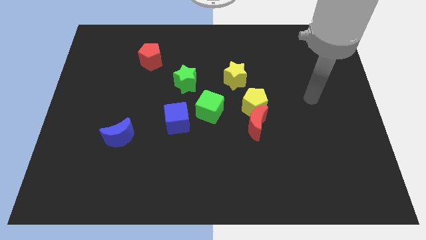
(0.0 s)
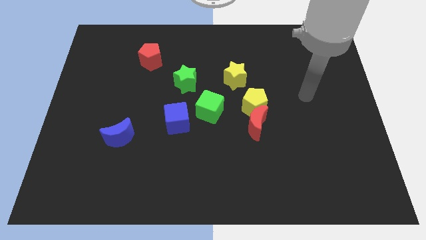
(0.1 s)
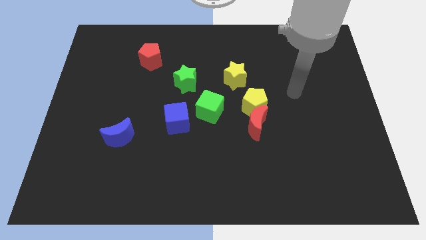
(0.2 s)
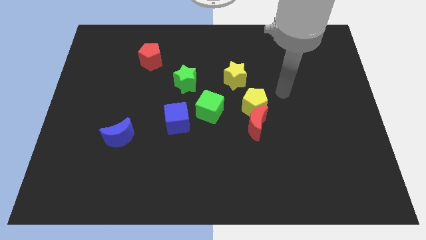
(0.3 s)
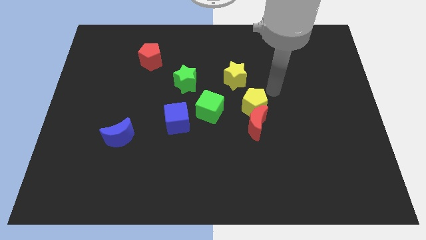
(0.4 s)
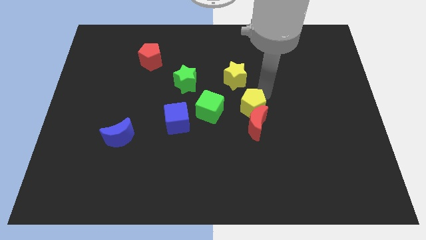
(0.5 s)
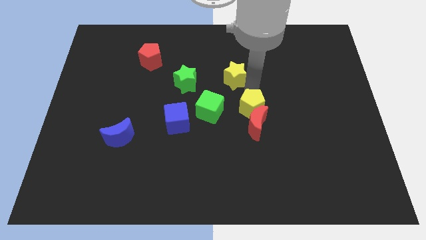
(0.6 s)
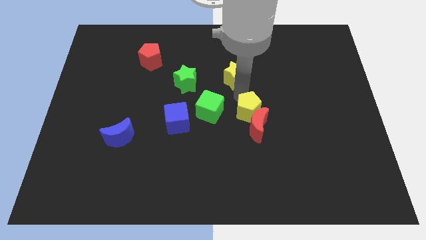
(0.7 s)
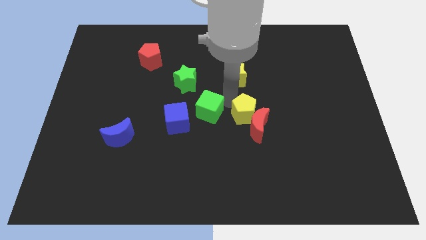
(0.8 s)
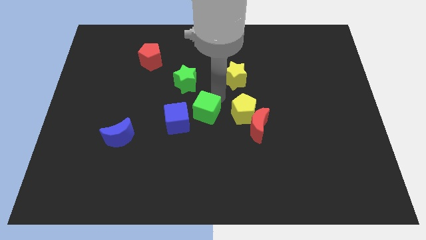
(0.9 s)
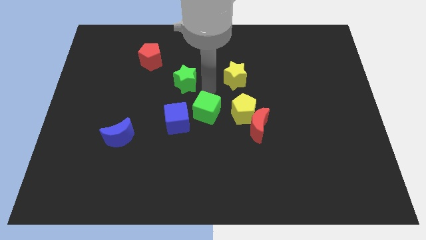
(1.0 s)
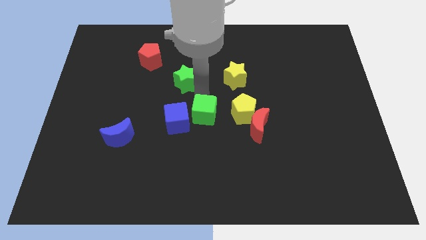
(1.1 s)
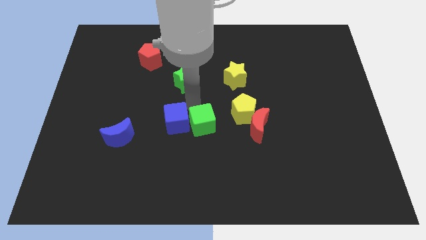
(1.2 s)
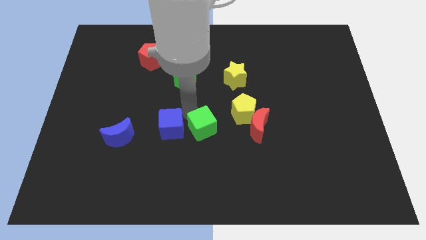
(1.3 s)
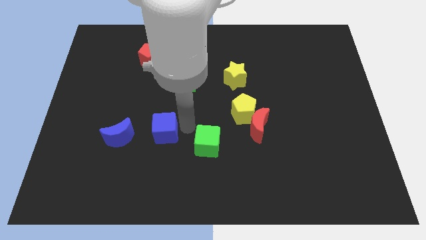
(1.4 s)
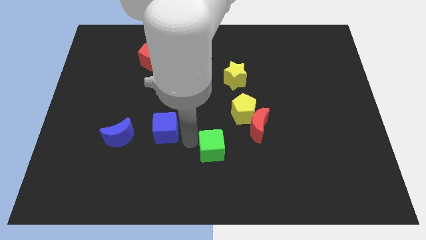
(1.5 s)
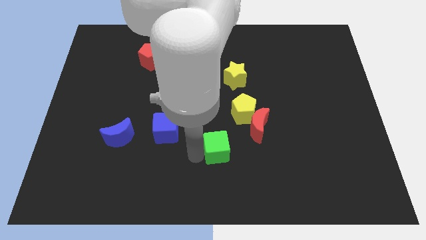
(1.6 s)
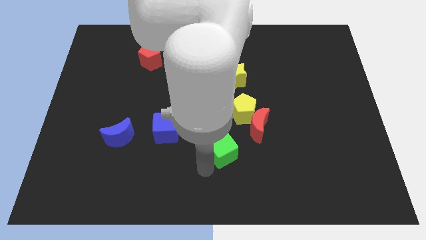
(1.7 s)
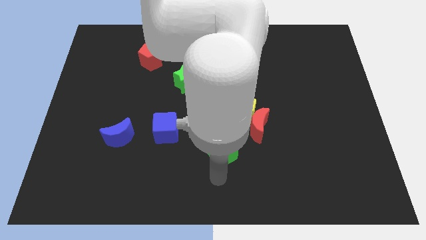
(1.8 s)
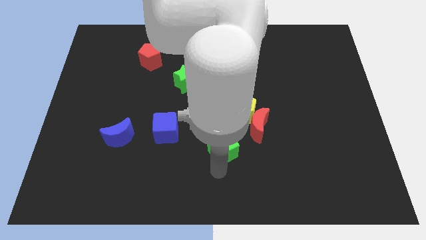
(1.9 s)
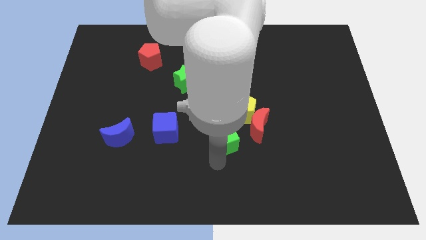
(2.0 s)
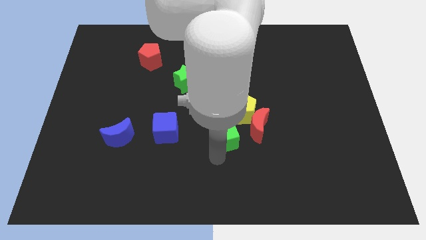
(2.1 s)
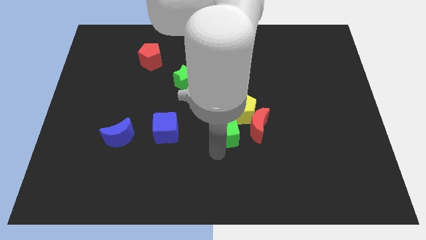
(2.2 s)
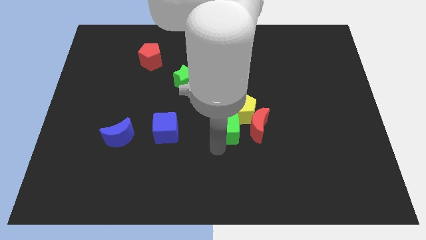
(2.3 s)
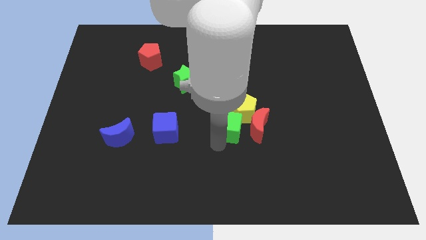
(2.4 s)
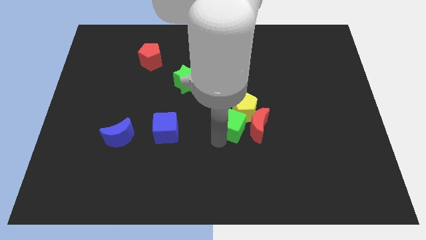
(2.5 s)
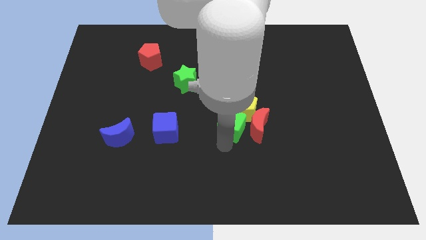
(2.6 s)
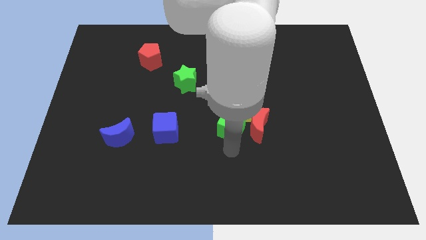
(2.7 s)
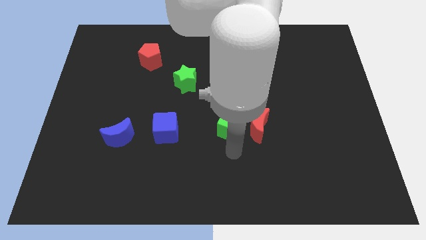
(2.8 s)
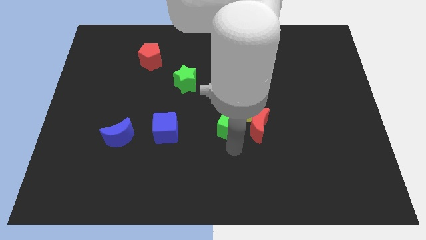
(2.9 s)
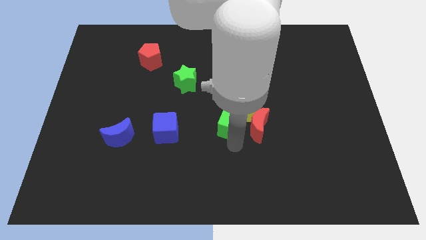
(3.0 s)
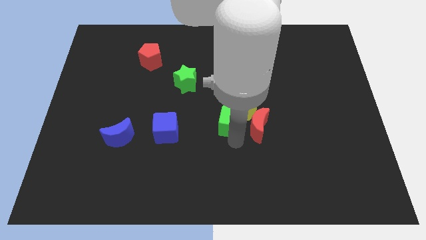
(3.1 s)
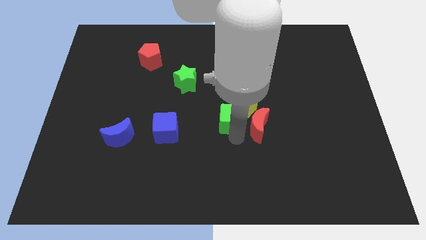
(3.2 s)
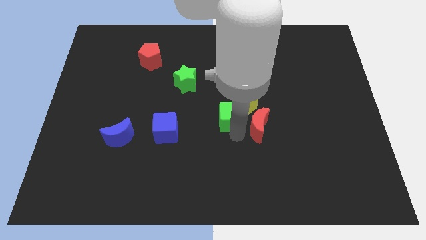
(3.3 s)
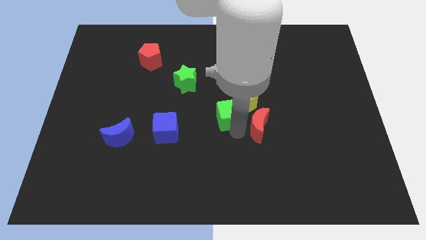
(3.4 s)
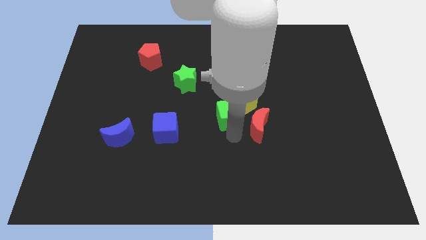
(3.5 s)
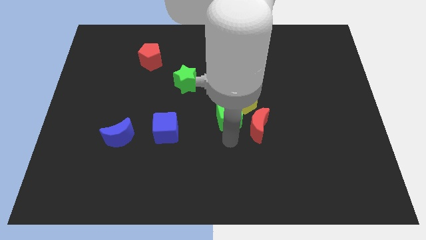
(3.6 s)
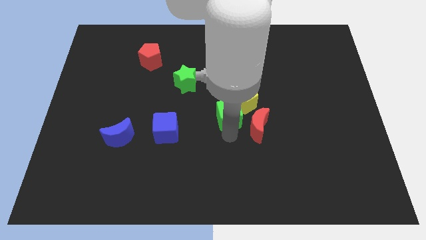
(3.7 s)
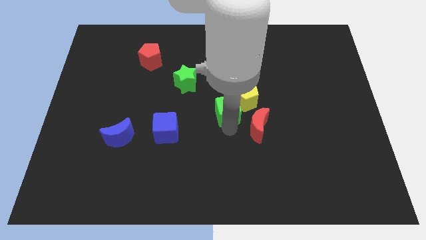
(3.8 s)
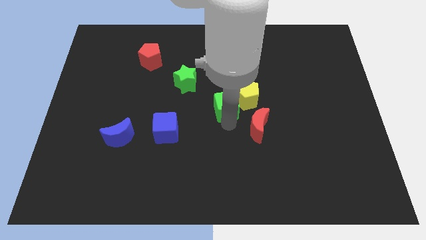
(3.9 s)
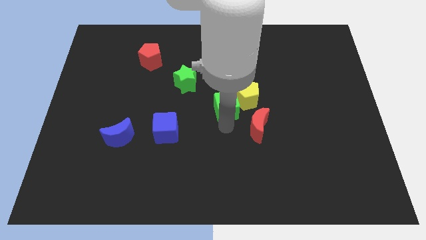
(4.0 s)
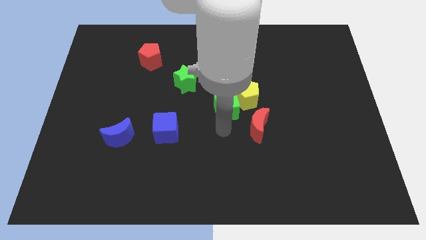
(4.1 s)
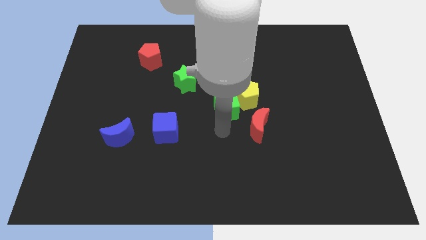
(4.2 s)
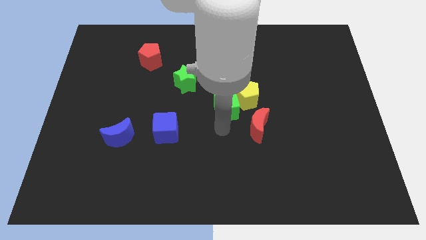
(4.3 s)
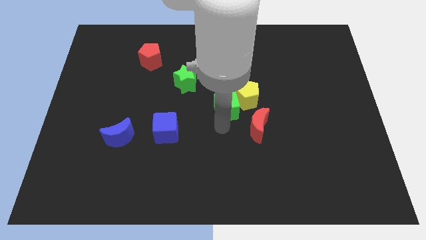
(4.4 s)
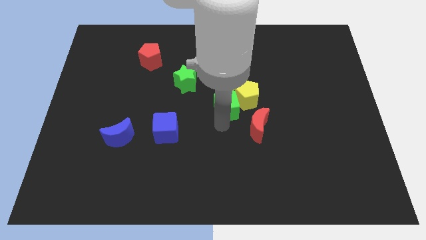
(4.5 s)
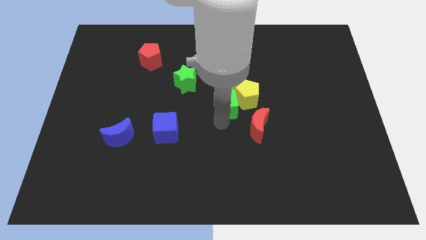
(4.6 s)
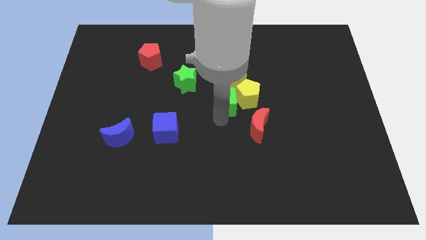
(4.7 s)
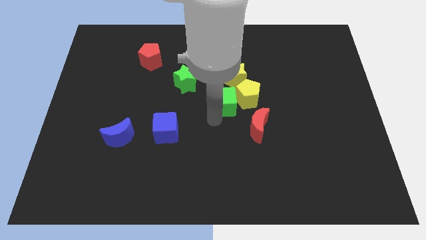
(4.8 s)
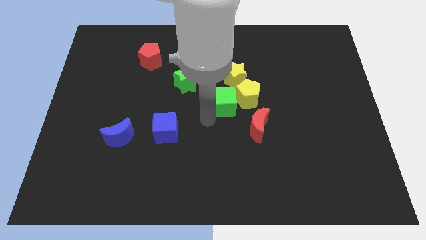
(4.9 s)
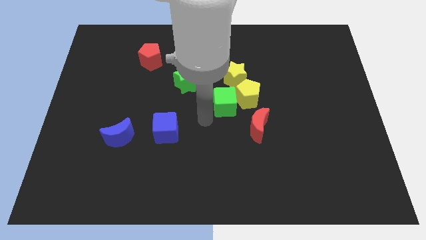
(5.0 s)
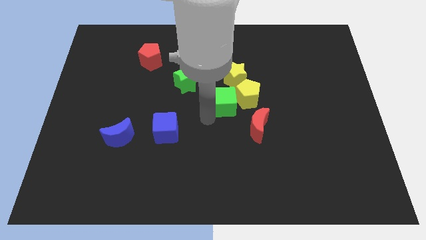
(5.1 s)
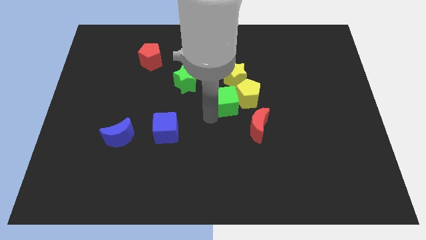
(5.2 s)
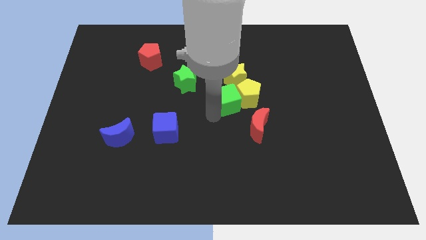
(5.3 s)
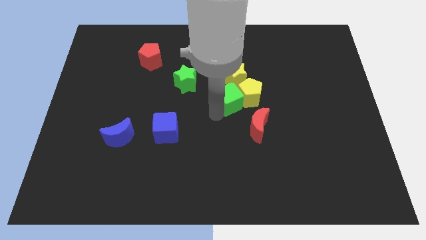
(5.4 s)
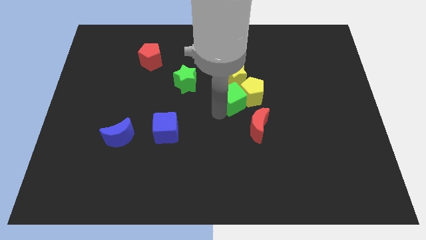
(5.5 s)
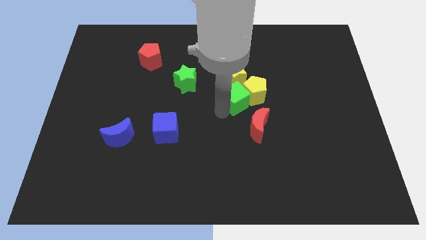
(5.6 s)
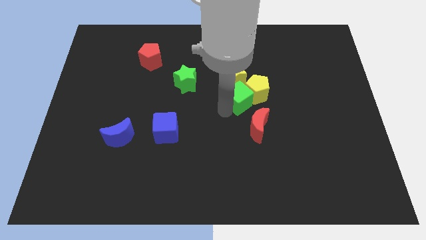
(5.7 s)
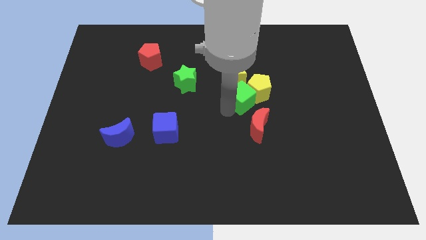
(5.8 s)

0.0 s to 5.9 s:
move the green cube up and then to the right a little

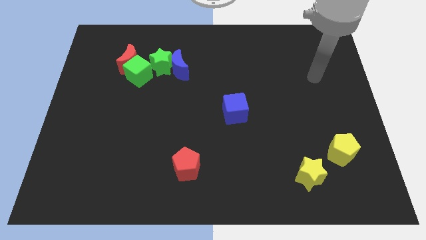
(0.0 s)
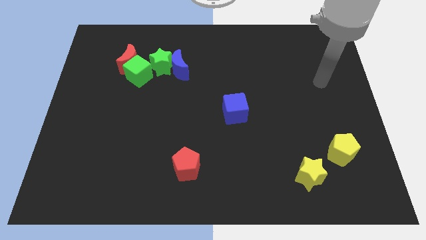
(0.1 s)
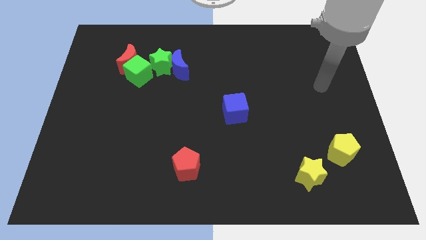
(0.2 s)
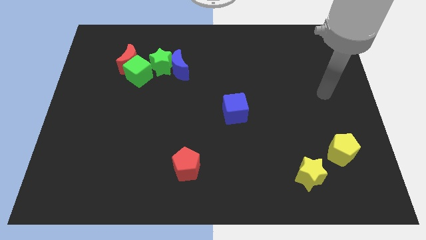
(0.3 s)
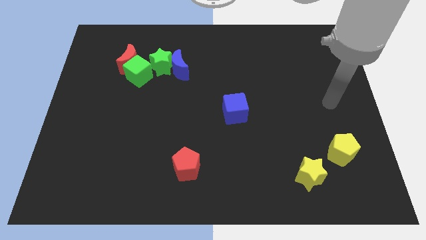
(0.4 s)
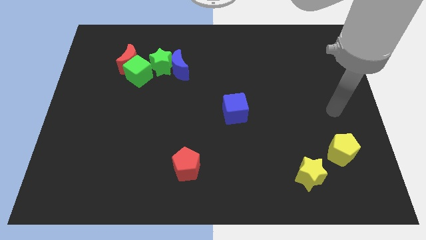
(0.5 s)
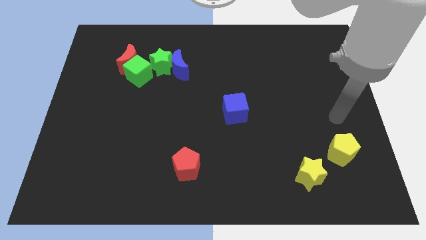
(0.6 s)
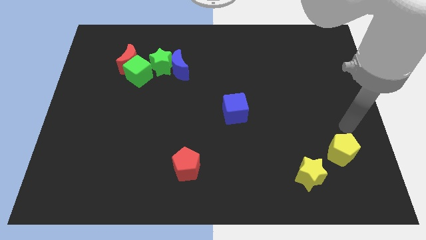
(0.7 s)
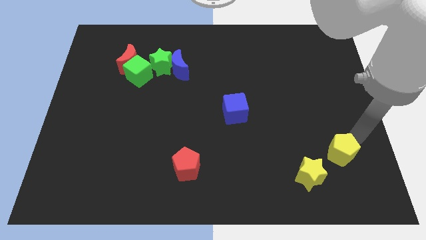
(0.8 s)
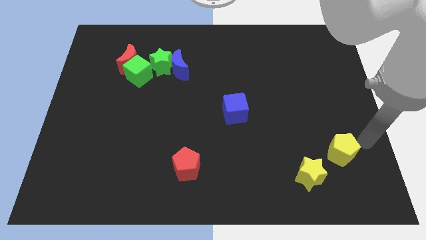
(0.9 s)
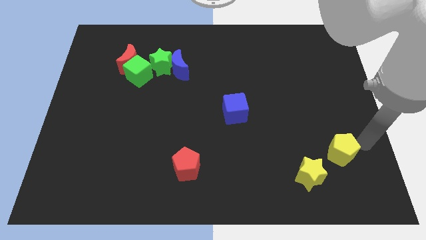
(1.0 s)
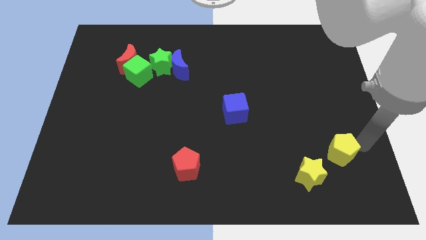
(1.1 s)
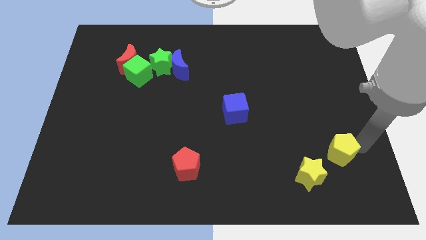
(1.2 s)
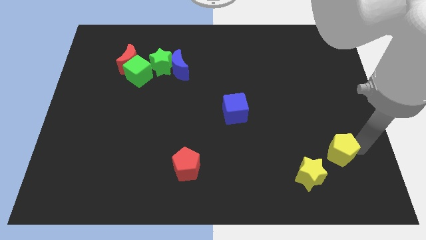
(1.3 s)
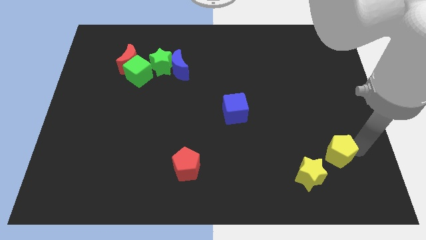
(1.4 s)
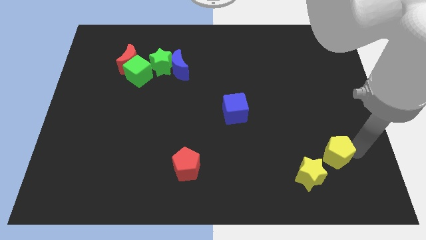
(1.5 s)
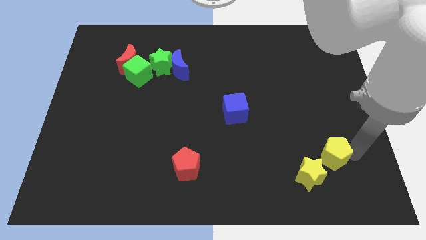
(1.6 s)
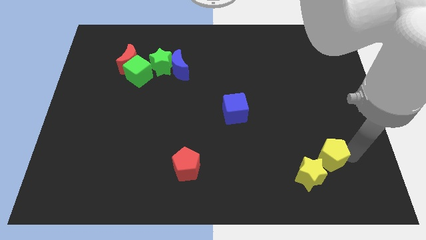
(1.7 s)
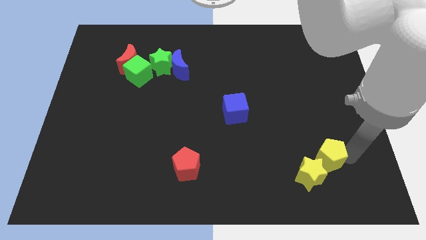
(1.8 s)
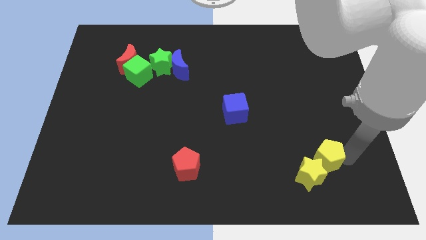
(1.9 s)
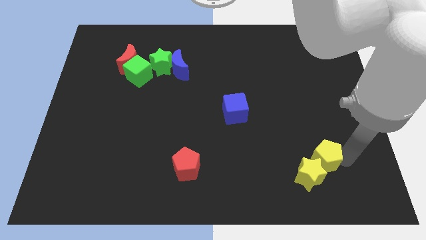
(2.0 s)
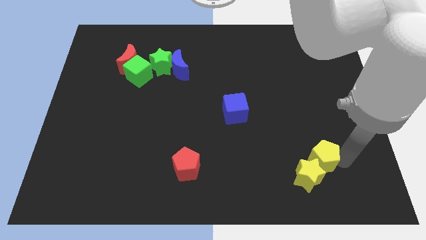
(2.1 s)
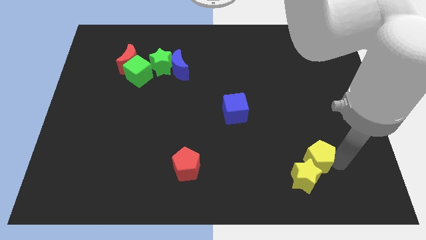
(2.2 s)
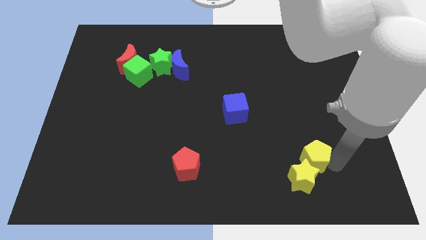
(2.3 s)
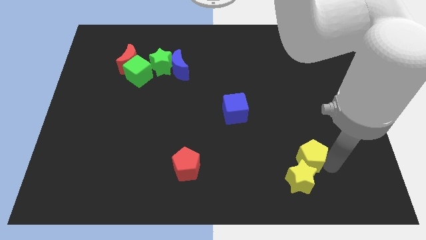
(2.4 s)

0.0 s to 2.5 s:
slightly slide the yellow pentagon to the left
